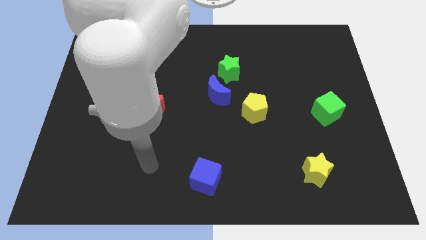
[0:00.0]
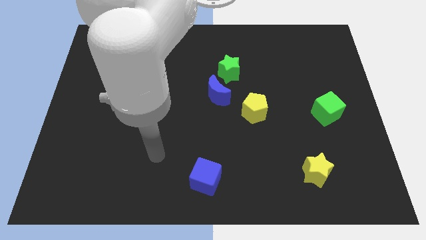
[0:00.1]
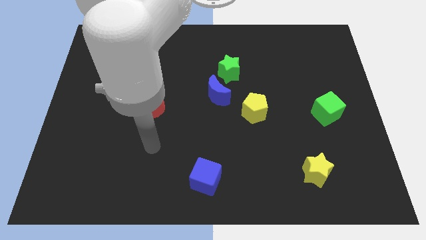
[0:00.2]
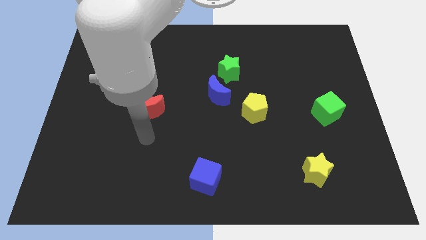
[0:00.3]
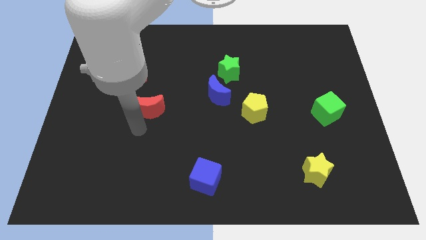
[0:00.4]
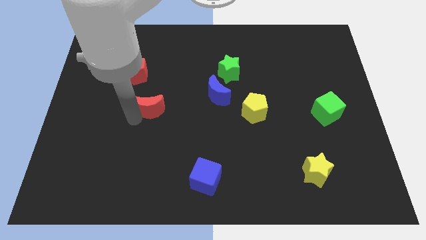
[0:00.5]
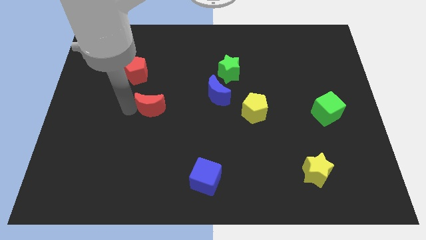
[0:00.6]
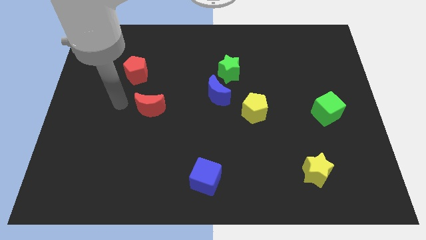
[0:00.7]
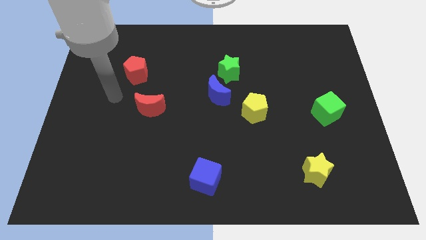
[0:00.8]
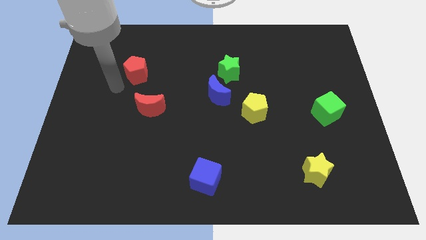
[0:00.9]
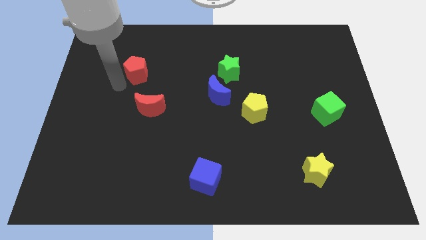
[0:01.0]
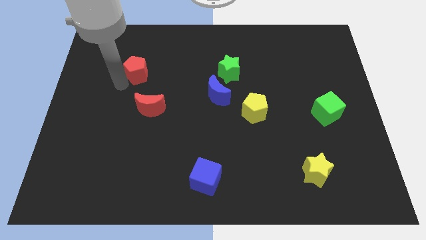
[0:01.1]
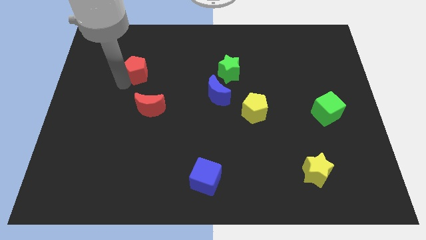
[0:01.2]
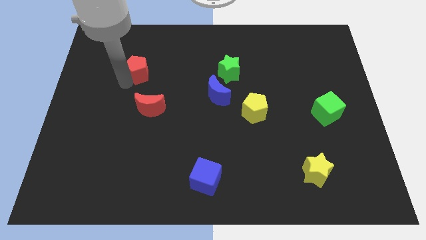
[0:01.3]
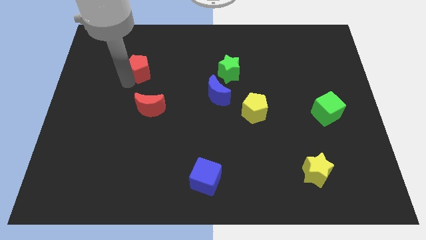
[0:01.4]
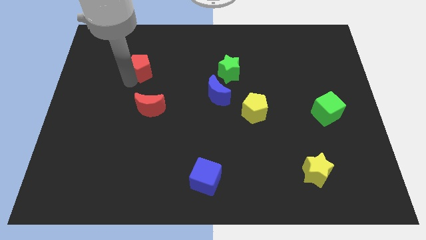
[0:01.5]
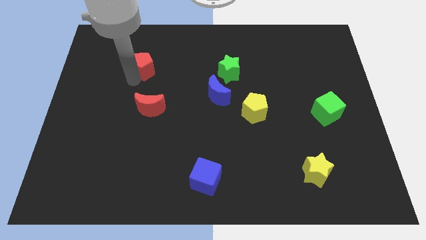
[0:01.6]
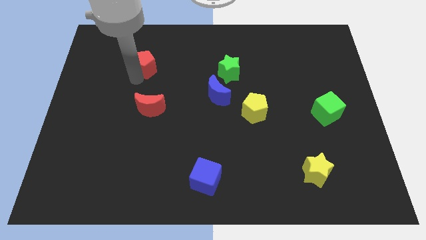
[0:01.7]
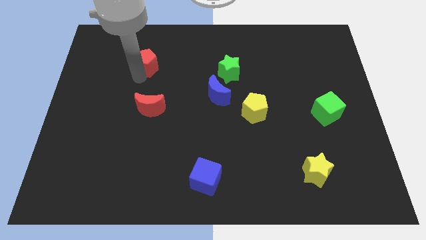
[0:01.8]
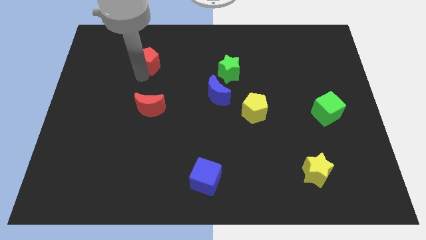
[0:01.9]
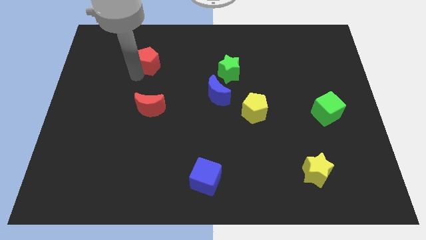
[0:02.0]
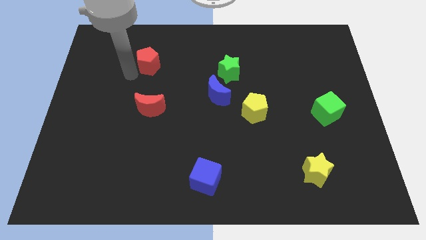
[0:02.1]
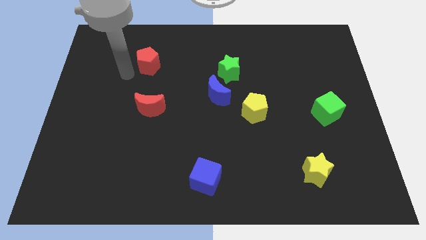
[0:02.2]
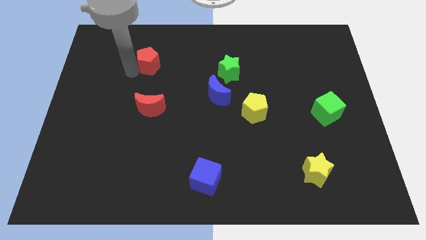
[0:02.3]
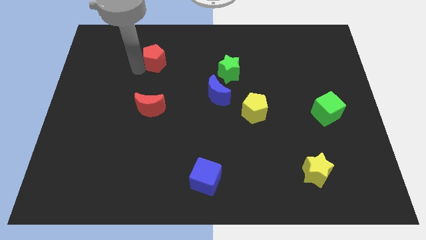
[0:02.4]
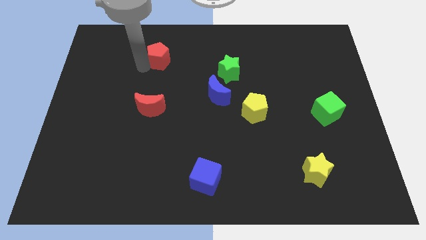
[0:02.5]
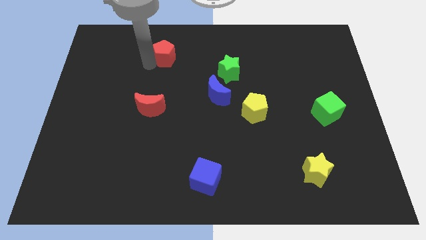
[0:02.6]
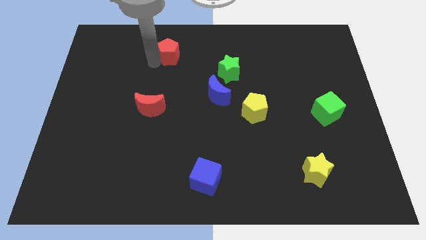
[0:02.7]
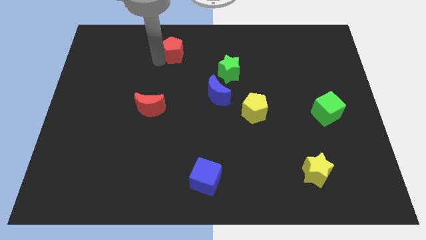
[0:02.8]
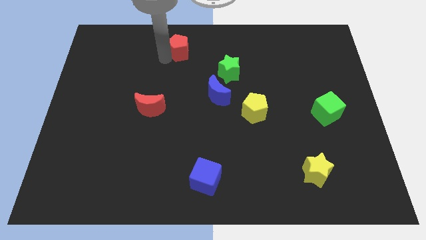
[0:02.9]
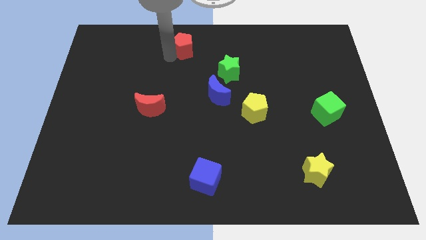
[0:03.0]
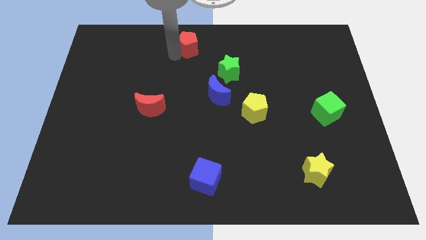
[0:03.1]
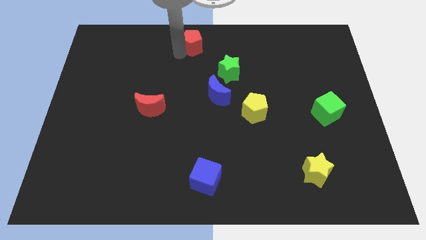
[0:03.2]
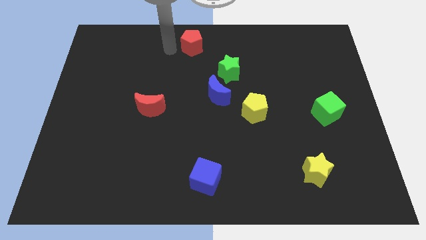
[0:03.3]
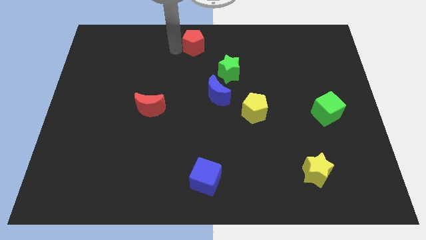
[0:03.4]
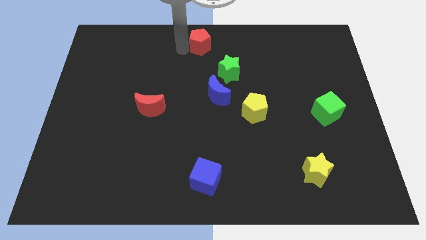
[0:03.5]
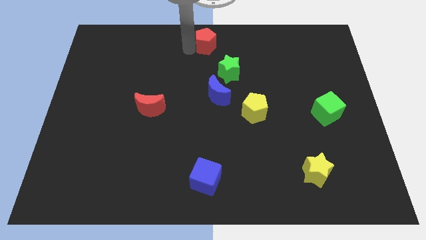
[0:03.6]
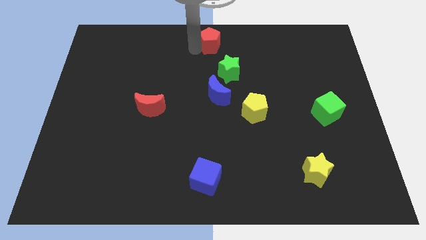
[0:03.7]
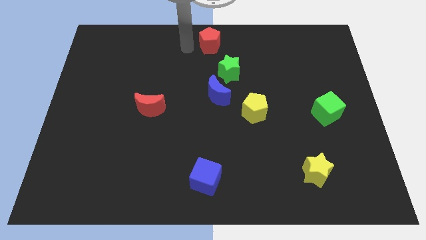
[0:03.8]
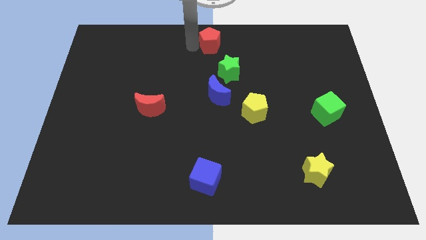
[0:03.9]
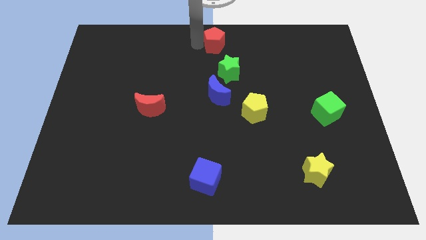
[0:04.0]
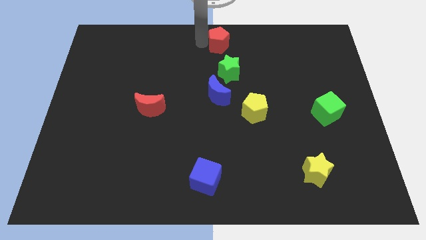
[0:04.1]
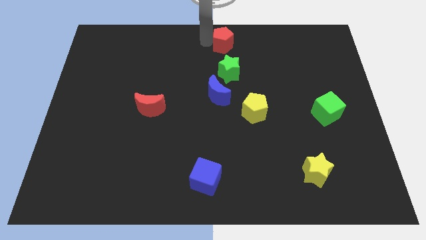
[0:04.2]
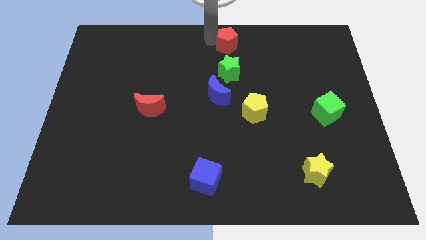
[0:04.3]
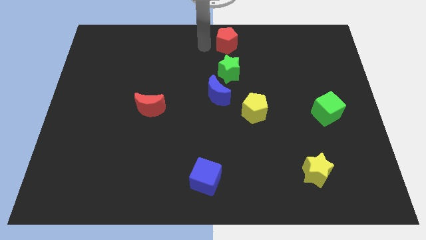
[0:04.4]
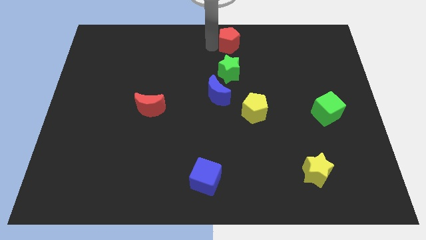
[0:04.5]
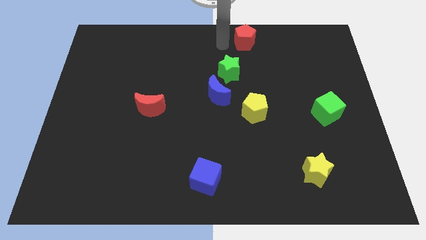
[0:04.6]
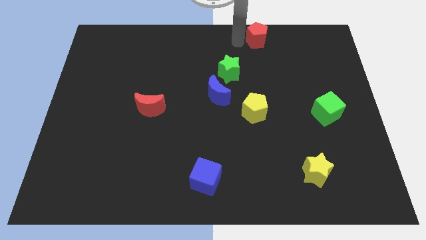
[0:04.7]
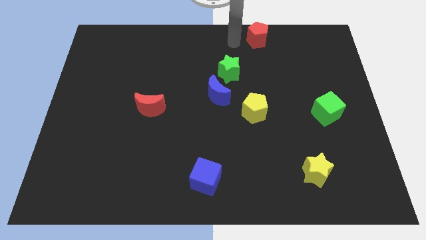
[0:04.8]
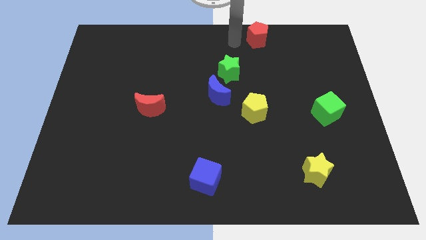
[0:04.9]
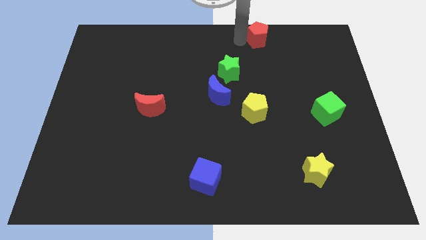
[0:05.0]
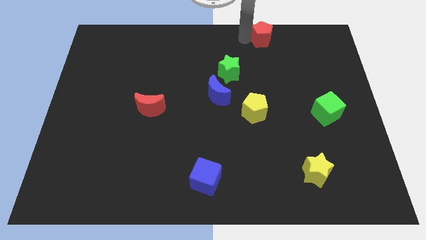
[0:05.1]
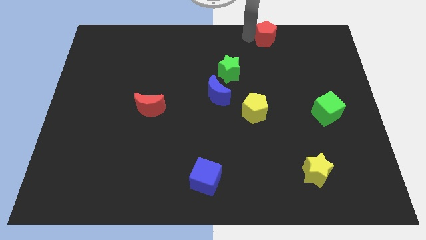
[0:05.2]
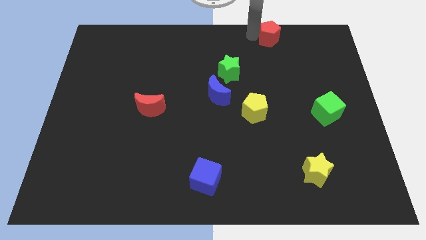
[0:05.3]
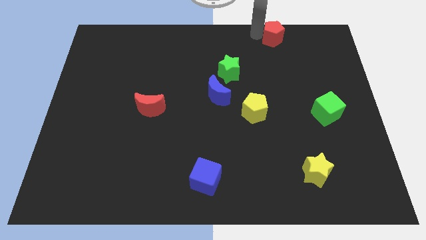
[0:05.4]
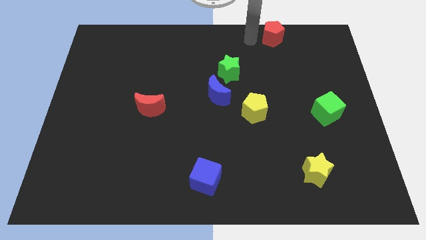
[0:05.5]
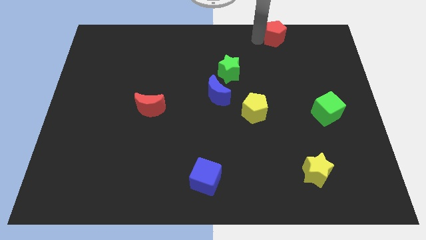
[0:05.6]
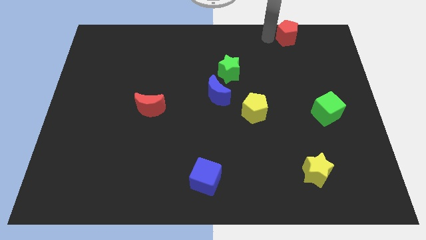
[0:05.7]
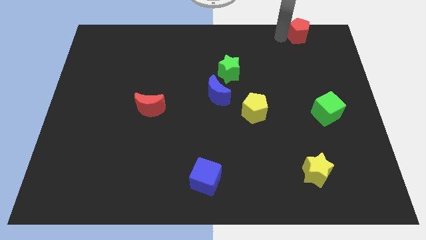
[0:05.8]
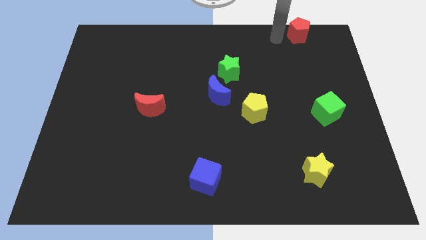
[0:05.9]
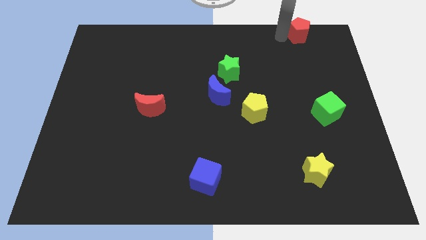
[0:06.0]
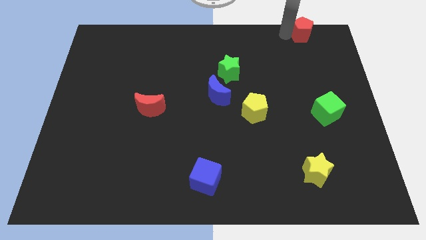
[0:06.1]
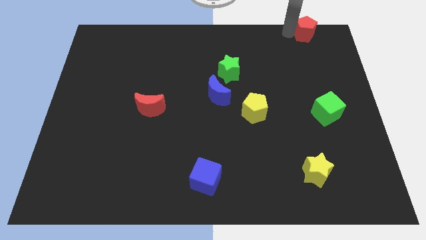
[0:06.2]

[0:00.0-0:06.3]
slide the red pentagon to the top right of the board
